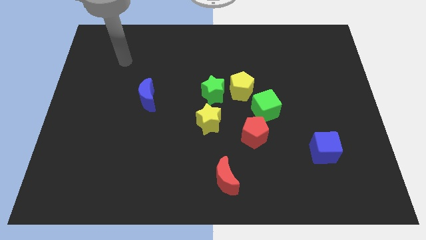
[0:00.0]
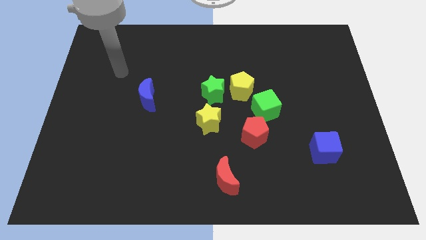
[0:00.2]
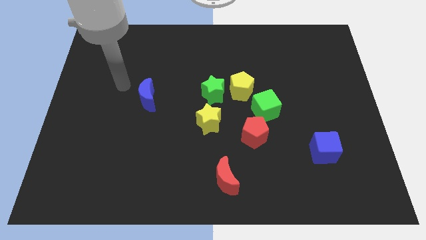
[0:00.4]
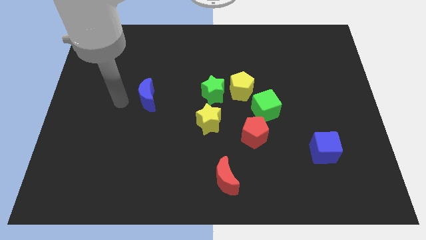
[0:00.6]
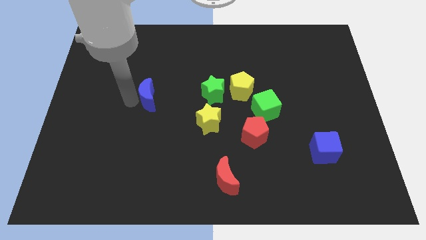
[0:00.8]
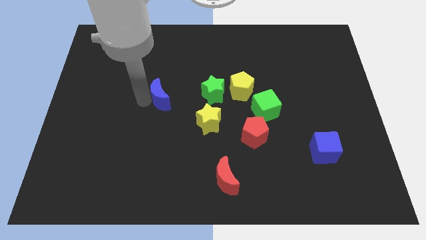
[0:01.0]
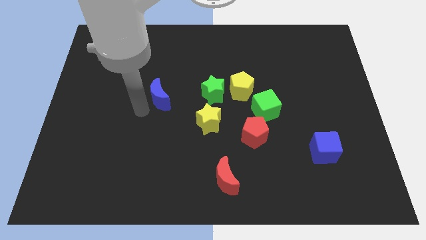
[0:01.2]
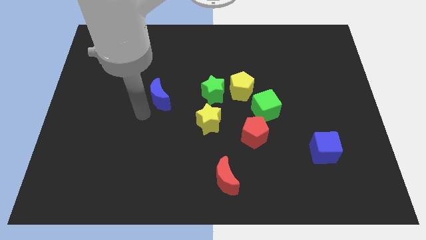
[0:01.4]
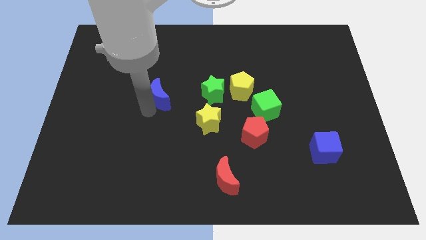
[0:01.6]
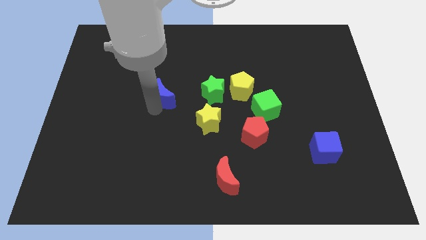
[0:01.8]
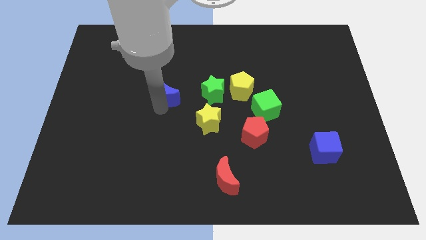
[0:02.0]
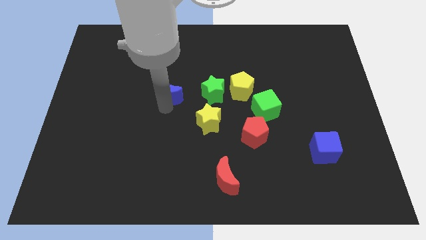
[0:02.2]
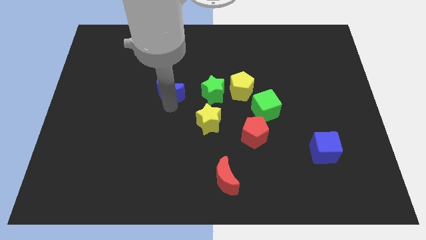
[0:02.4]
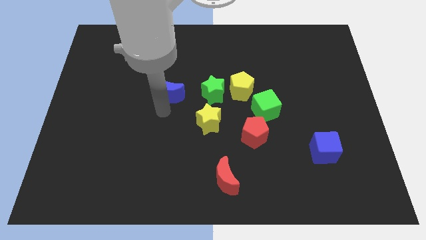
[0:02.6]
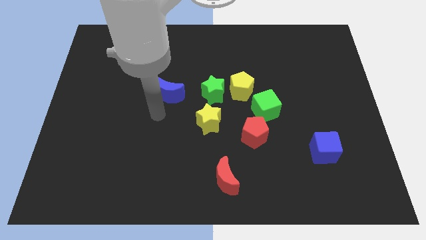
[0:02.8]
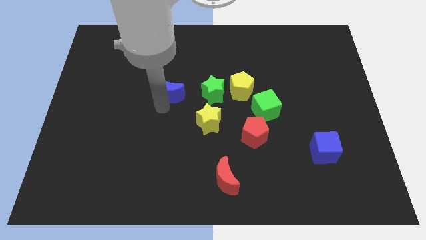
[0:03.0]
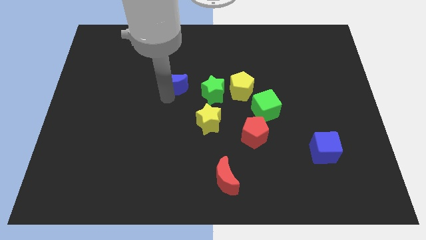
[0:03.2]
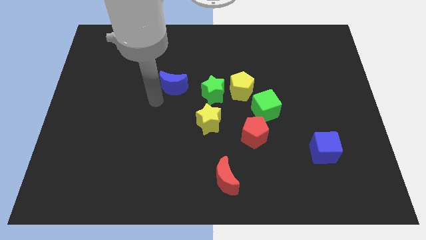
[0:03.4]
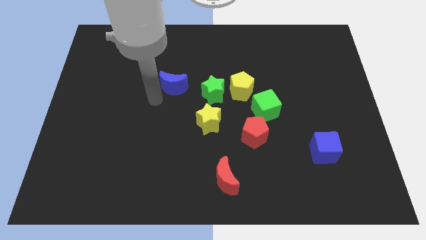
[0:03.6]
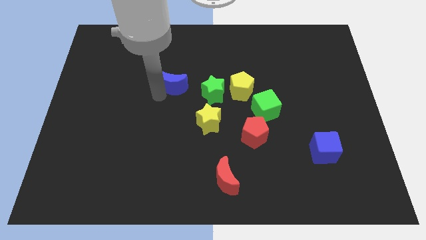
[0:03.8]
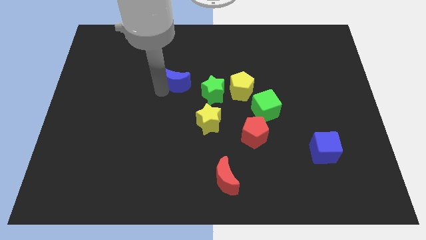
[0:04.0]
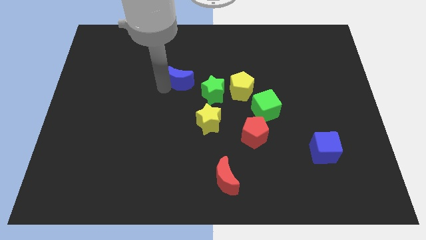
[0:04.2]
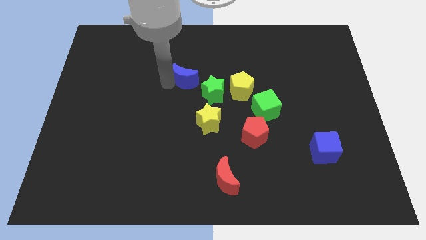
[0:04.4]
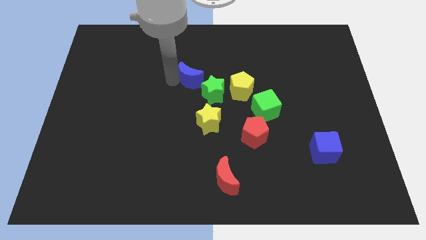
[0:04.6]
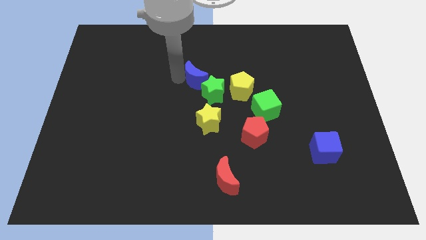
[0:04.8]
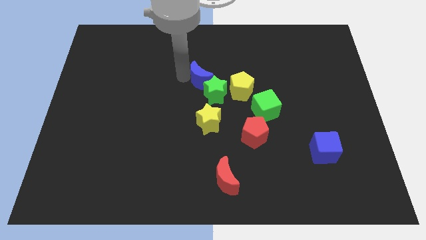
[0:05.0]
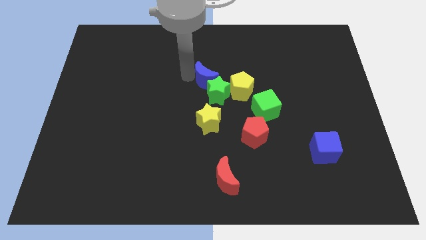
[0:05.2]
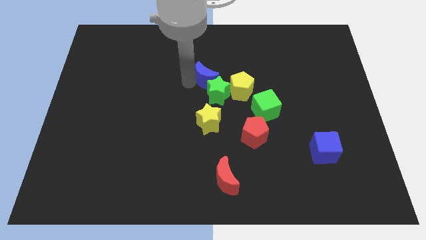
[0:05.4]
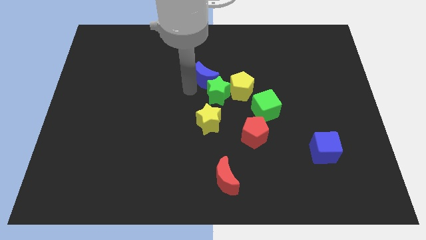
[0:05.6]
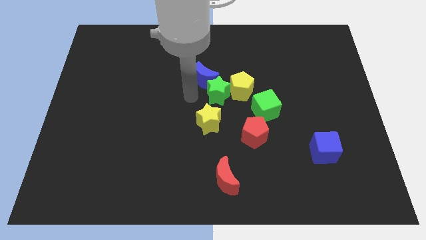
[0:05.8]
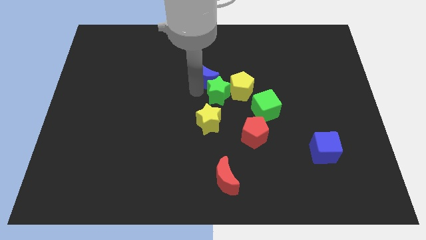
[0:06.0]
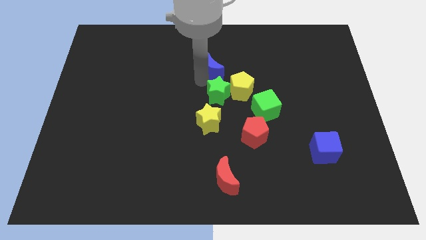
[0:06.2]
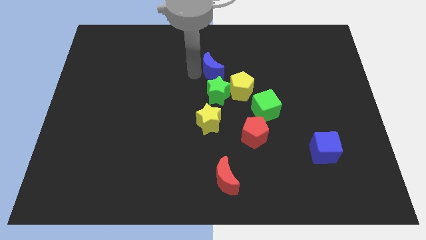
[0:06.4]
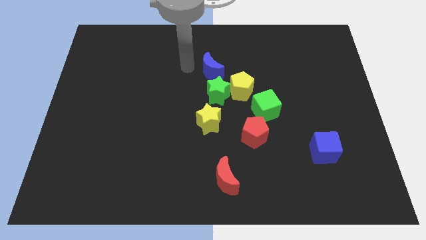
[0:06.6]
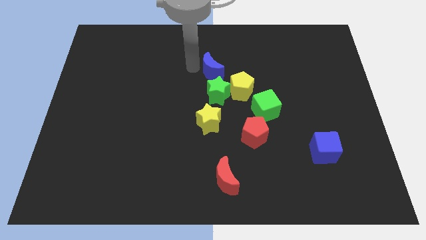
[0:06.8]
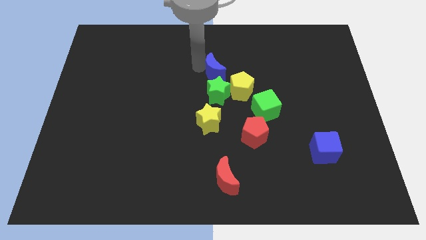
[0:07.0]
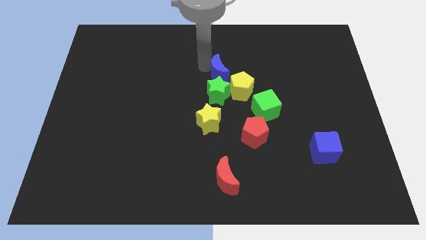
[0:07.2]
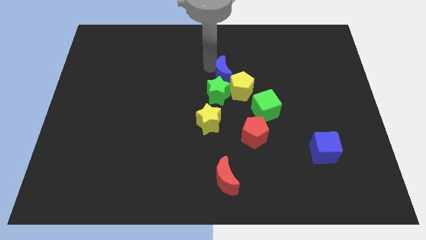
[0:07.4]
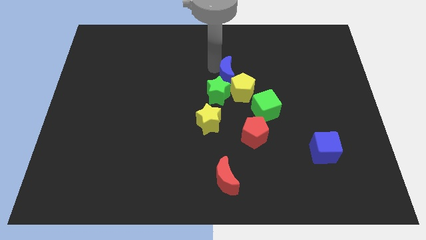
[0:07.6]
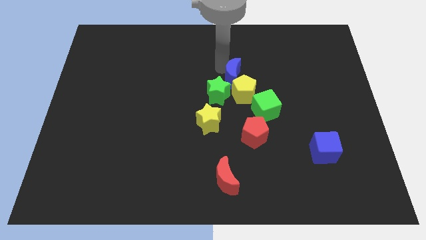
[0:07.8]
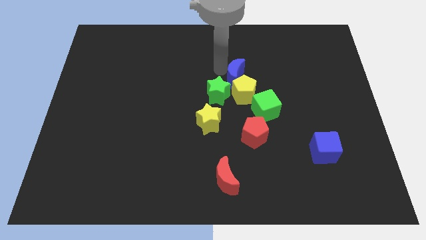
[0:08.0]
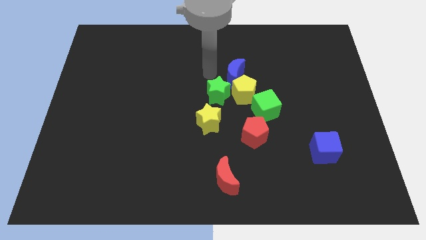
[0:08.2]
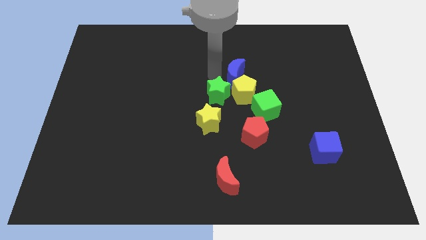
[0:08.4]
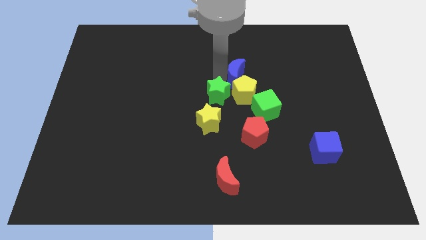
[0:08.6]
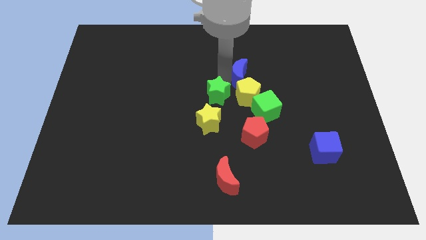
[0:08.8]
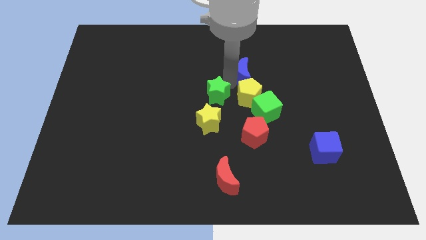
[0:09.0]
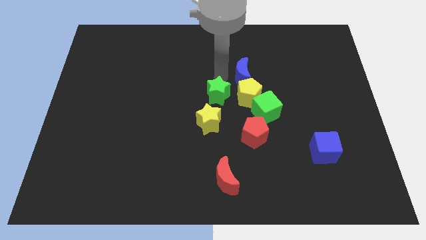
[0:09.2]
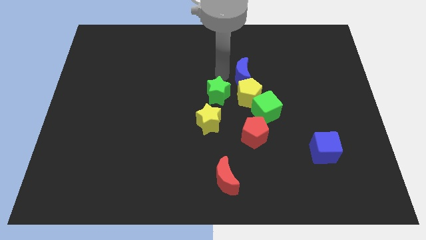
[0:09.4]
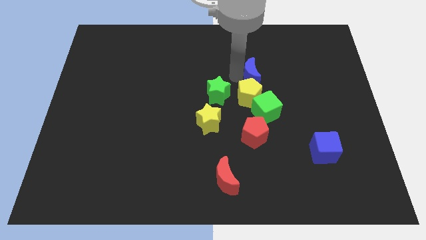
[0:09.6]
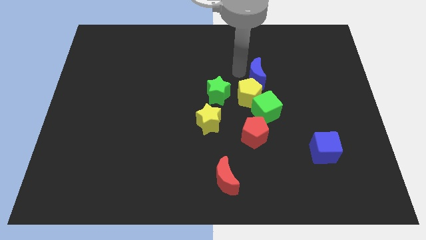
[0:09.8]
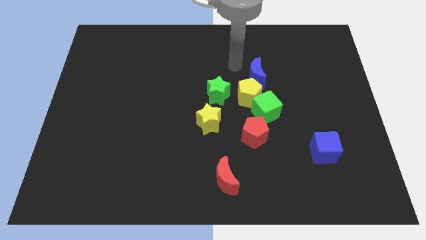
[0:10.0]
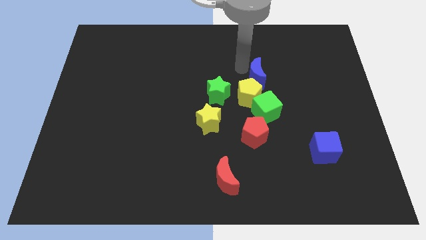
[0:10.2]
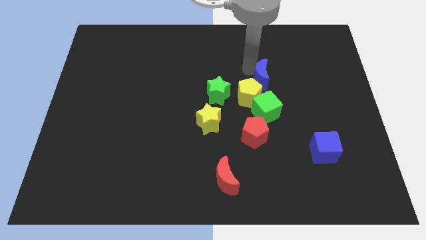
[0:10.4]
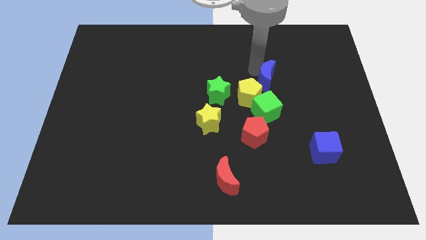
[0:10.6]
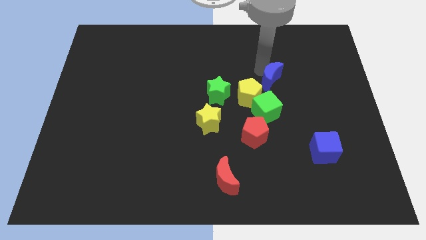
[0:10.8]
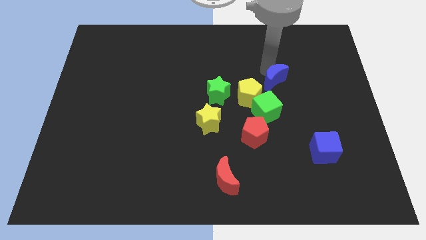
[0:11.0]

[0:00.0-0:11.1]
push the blue moon diagonally up and to the right of the green cube

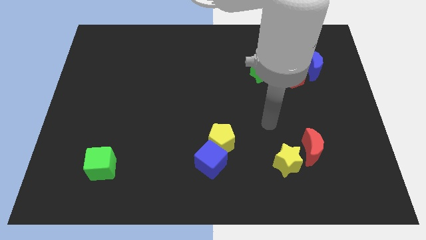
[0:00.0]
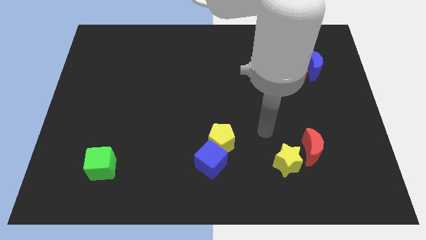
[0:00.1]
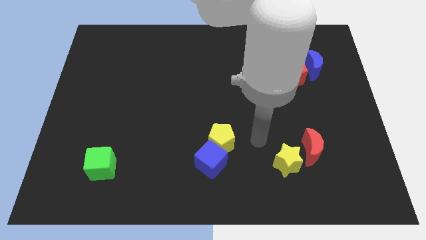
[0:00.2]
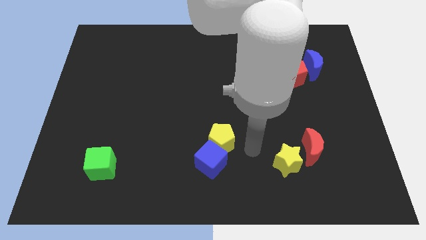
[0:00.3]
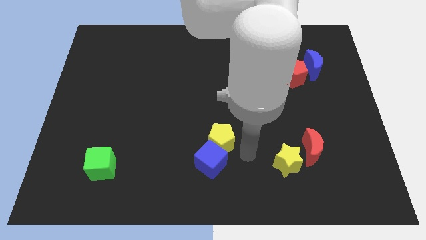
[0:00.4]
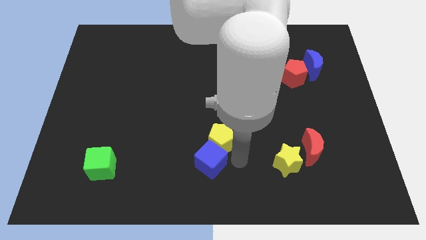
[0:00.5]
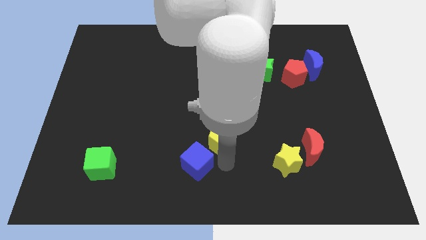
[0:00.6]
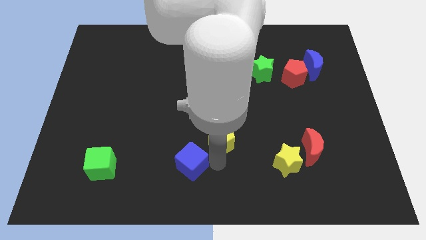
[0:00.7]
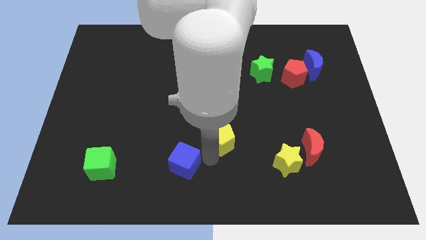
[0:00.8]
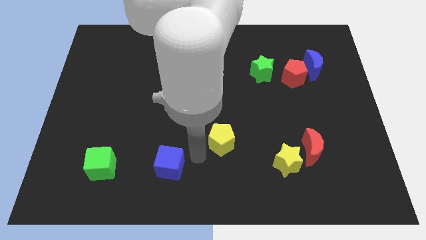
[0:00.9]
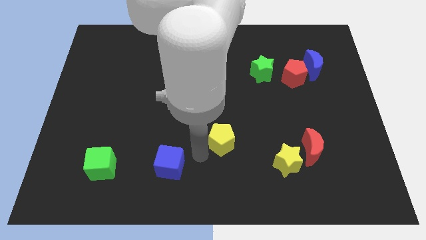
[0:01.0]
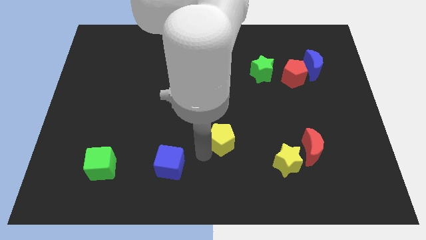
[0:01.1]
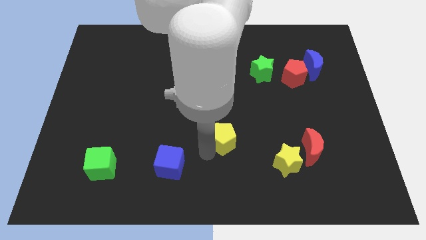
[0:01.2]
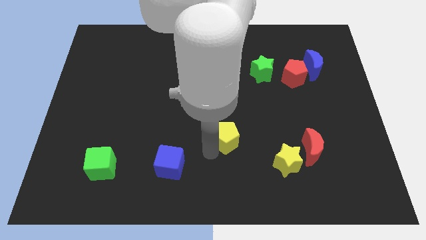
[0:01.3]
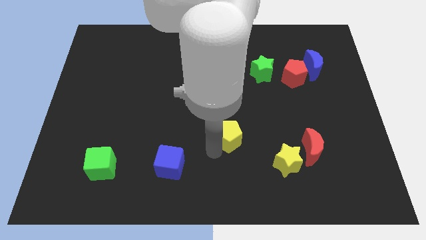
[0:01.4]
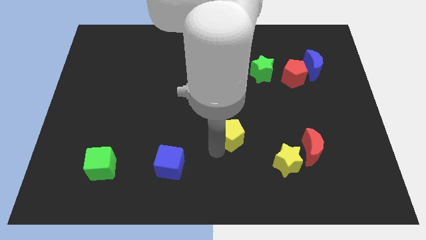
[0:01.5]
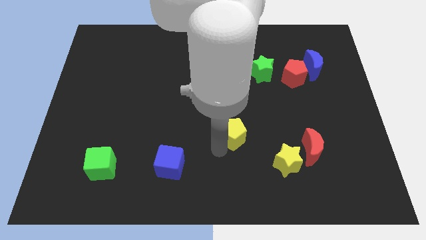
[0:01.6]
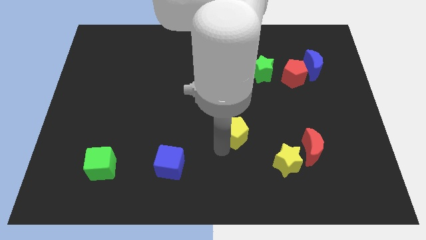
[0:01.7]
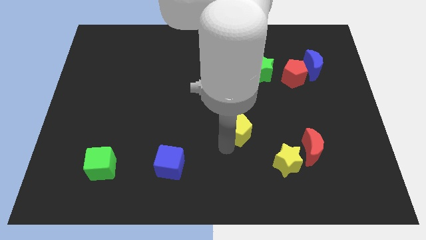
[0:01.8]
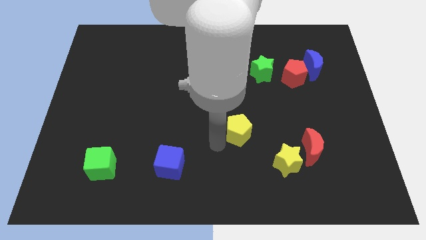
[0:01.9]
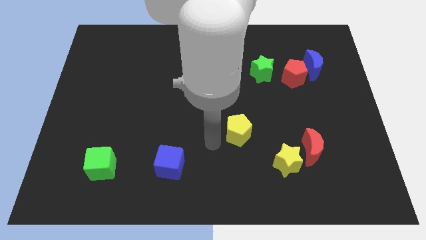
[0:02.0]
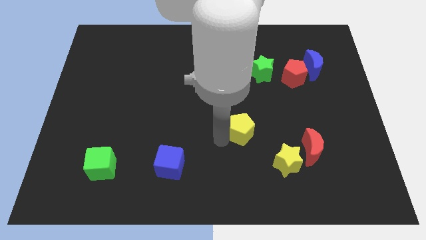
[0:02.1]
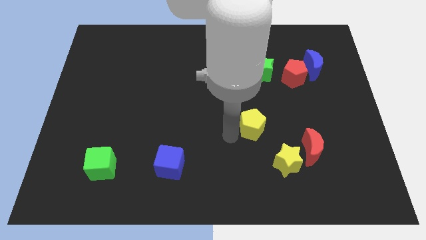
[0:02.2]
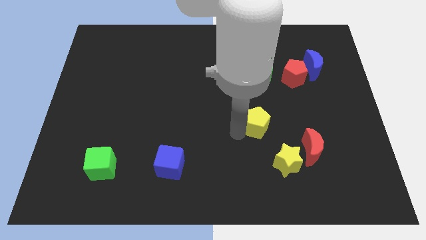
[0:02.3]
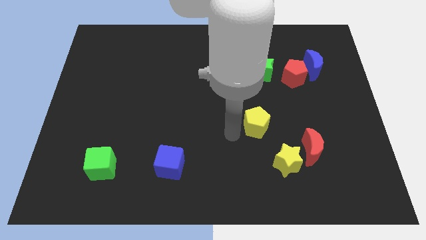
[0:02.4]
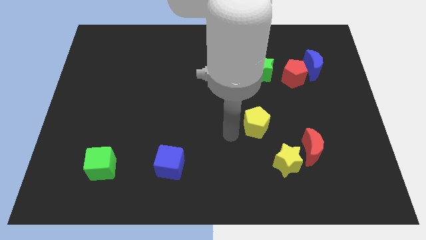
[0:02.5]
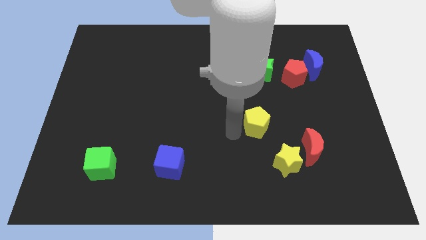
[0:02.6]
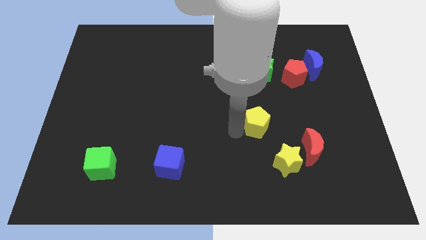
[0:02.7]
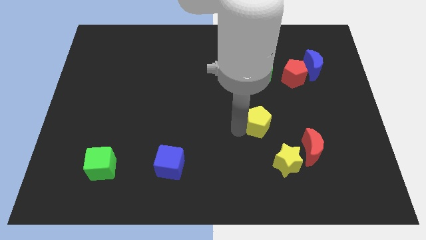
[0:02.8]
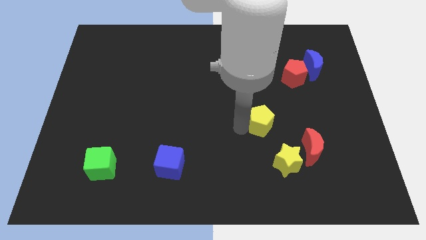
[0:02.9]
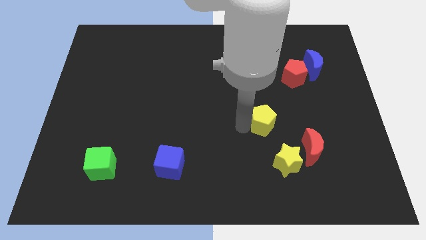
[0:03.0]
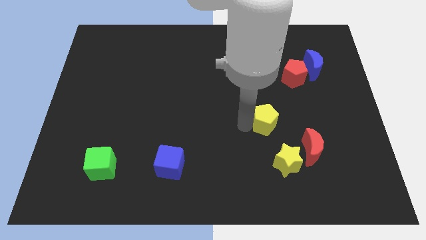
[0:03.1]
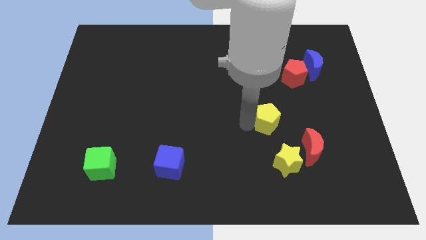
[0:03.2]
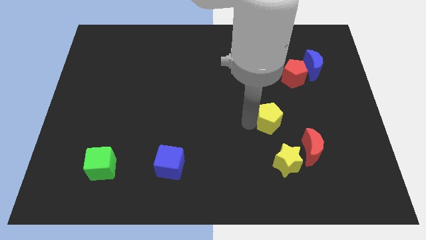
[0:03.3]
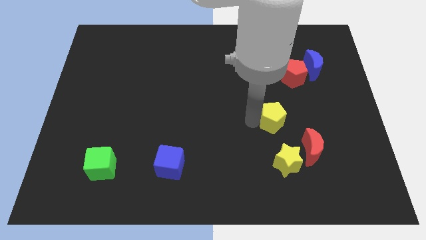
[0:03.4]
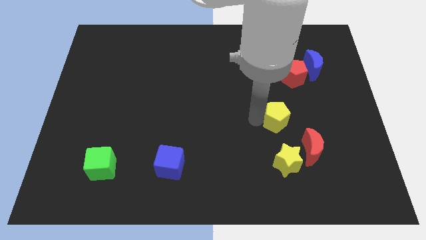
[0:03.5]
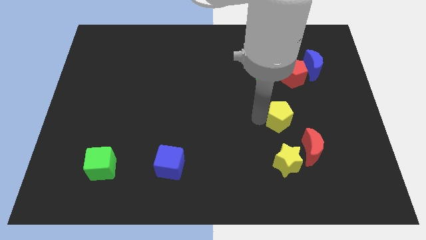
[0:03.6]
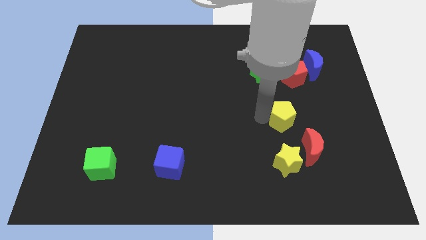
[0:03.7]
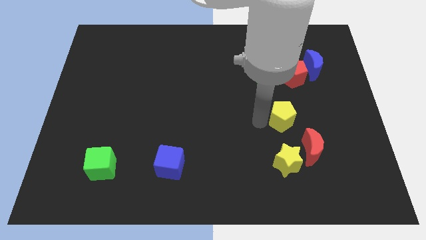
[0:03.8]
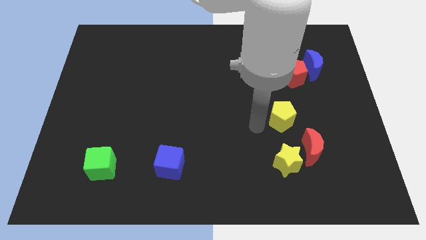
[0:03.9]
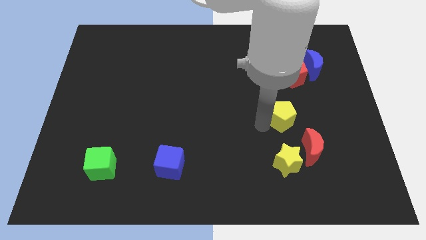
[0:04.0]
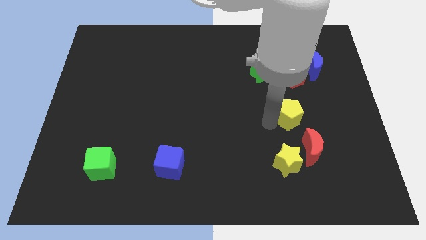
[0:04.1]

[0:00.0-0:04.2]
slide the yellow pentagon above the red moon
